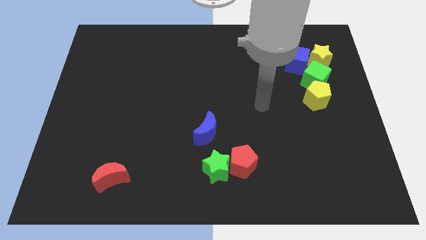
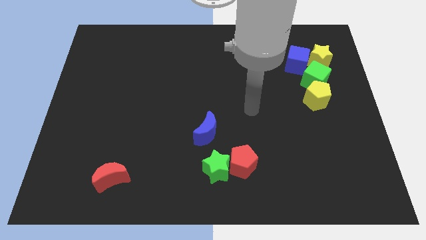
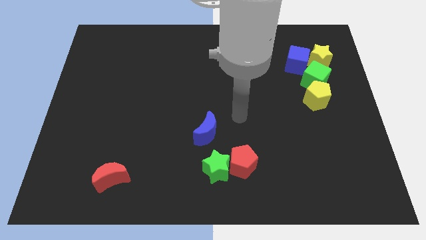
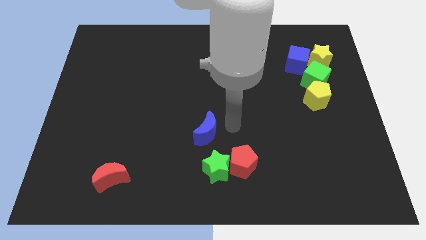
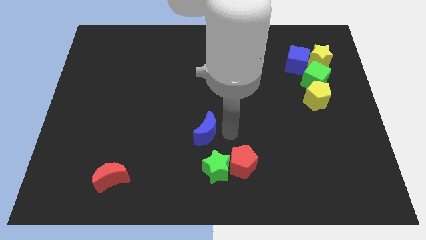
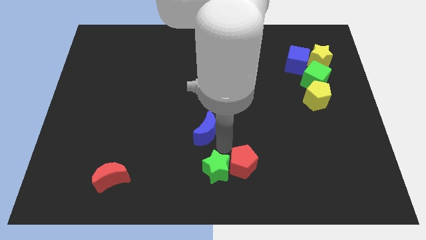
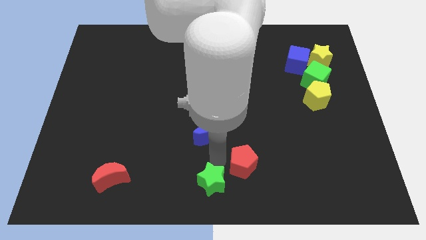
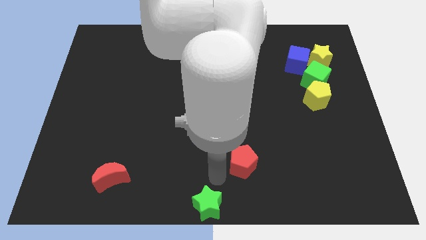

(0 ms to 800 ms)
separate the red pentagon from the green star

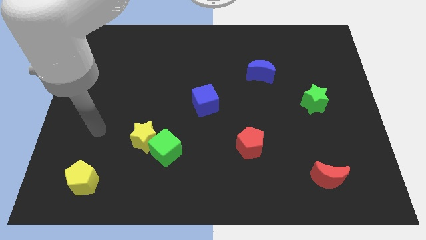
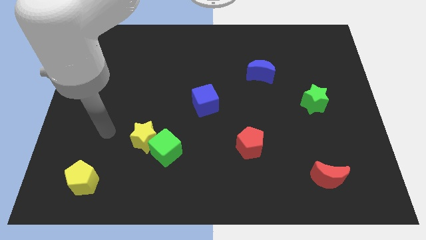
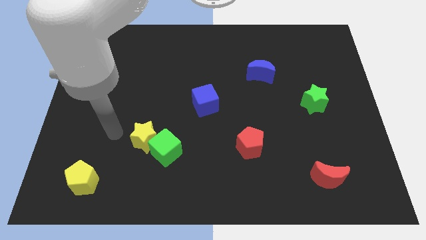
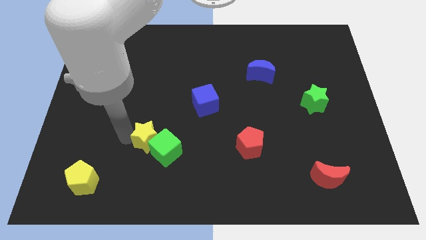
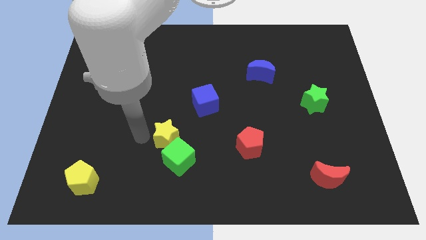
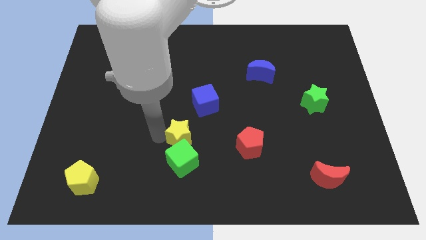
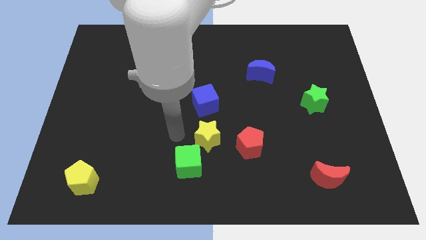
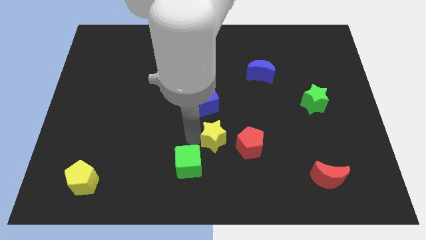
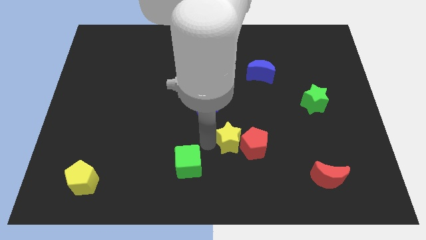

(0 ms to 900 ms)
separate the green cube from the yellow star

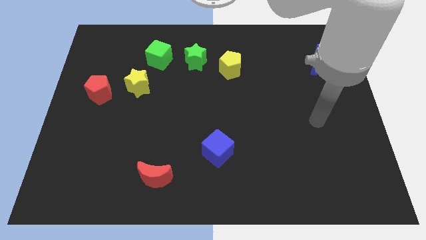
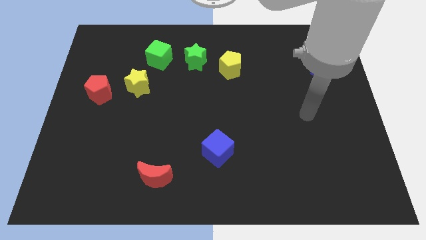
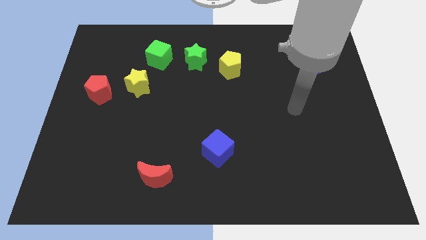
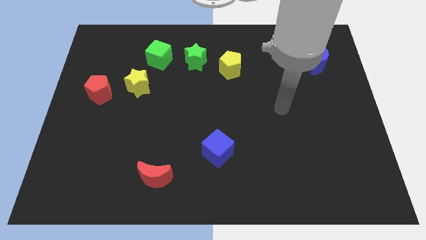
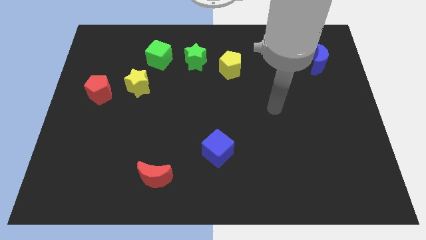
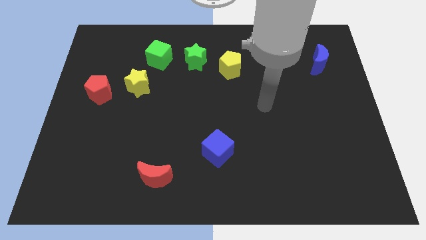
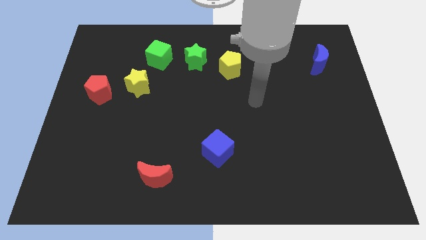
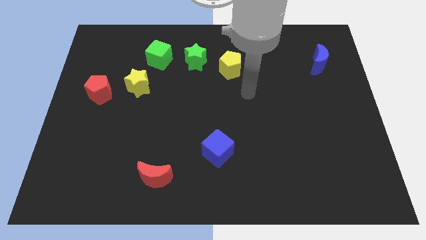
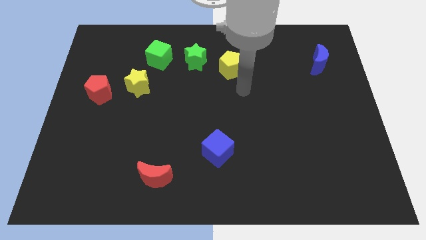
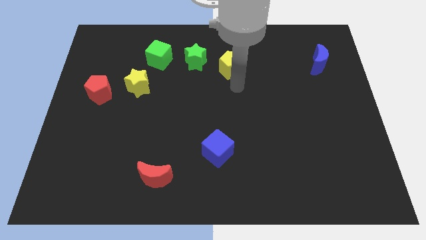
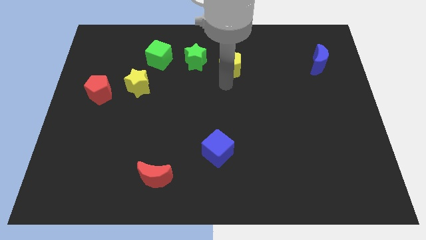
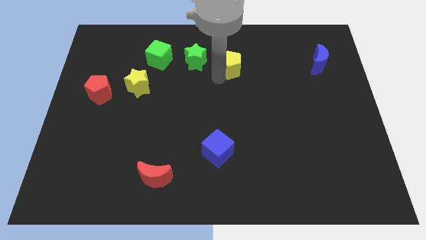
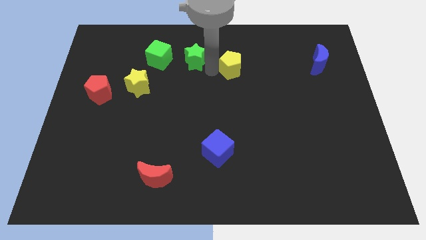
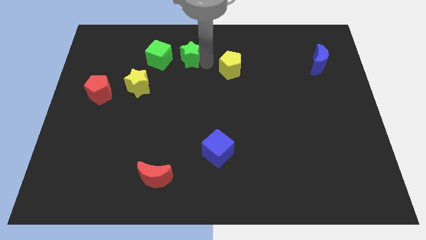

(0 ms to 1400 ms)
pull the yellow pentagon apart from the green star

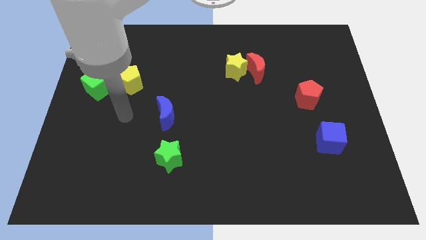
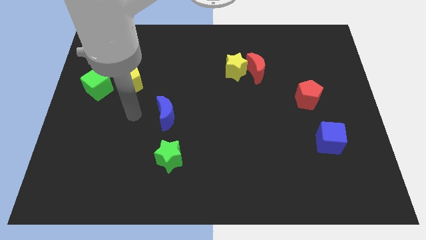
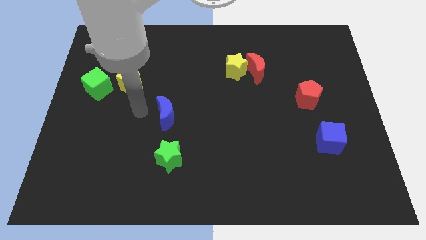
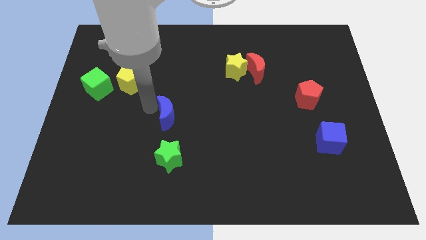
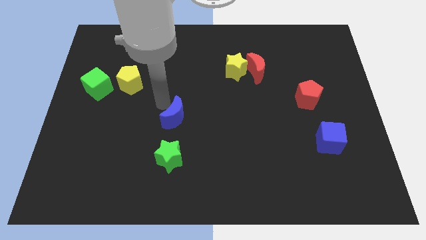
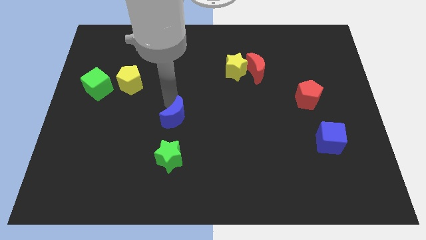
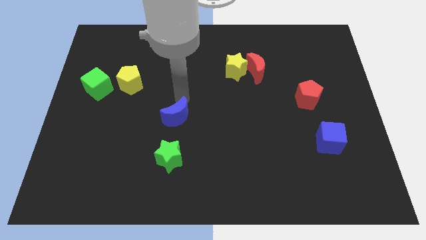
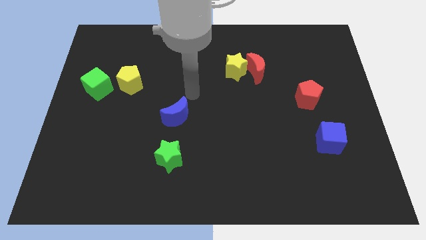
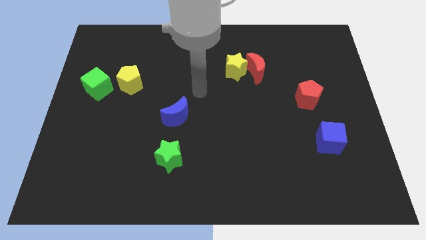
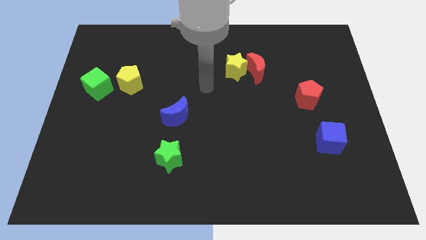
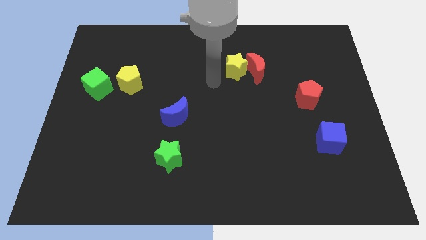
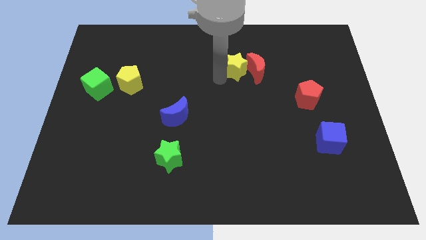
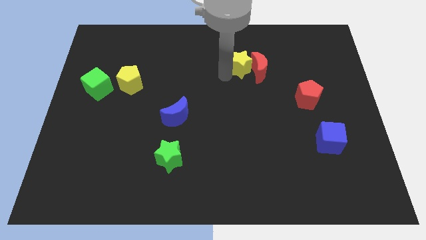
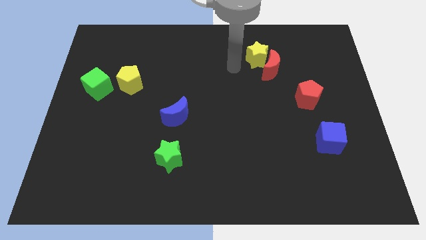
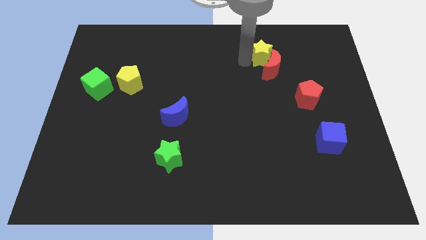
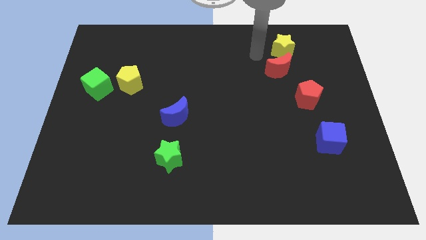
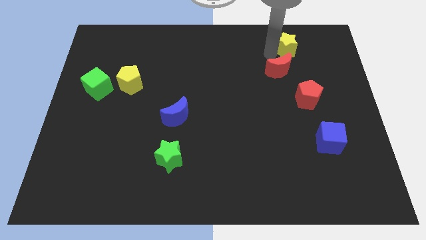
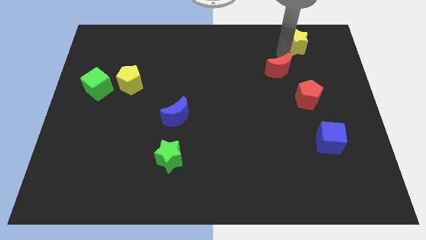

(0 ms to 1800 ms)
separate the red moon from the yellow star

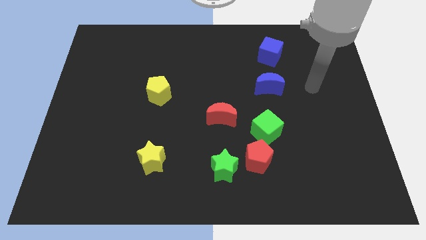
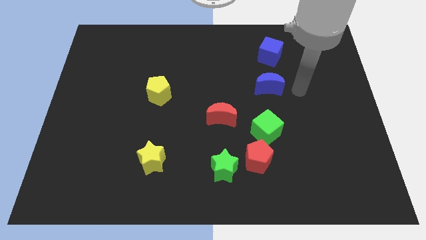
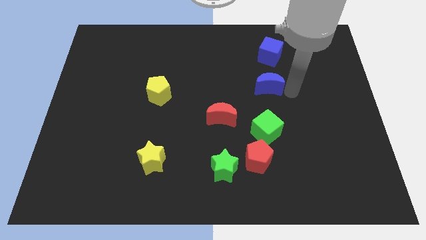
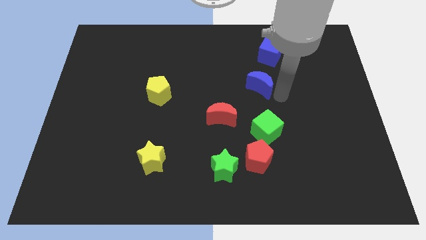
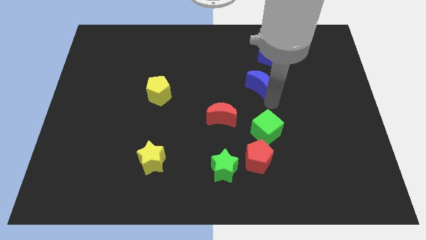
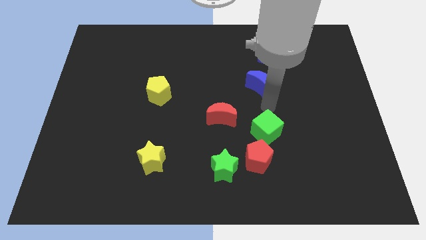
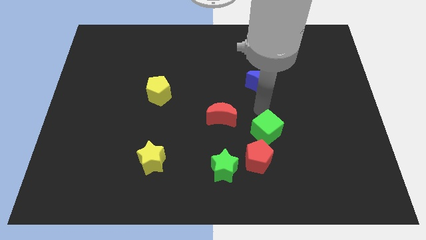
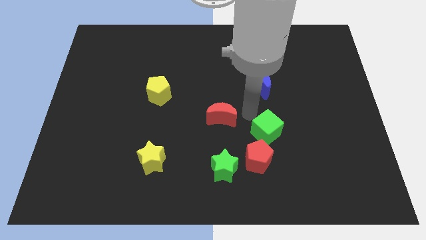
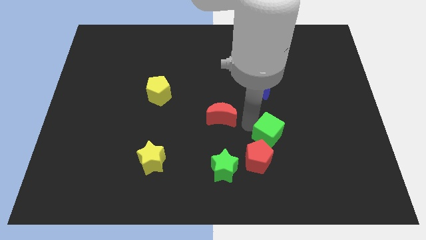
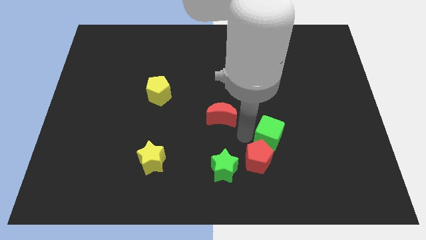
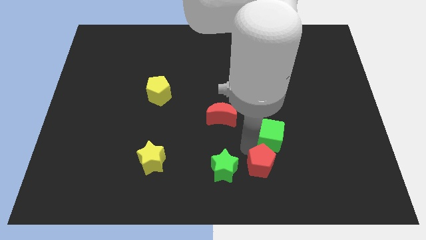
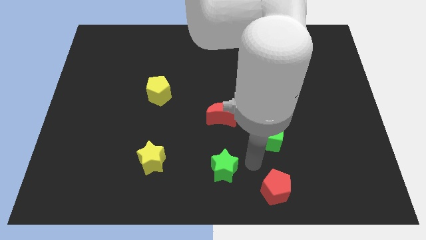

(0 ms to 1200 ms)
pull the green star apart from the red pentagon

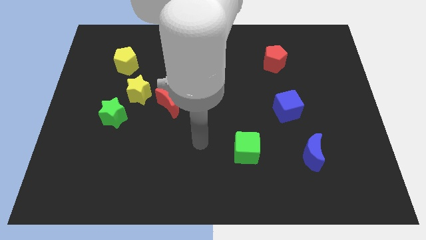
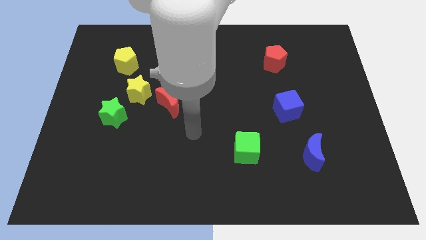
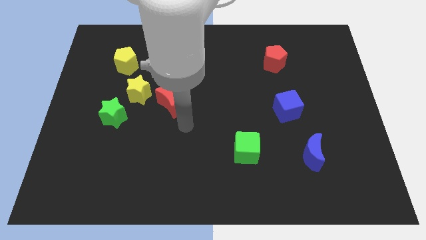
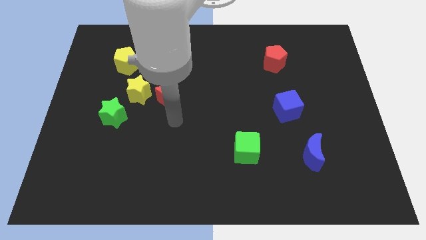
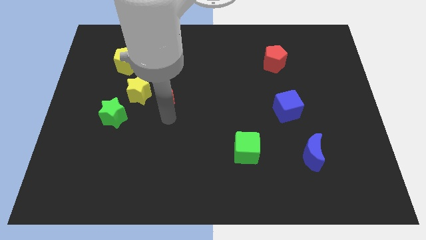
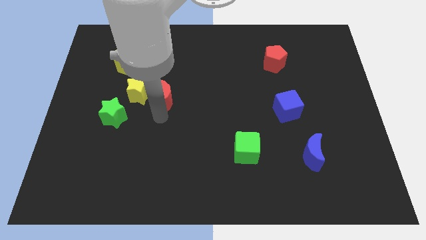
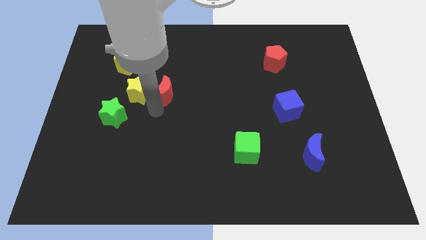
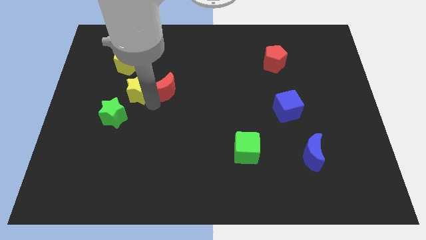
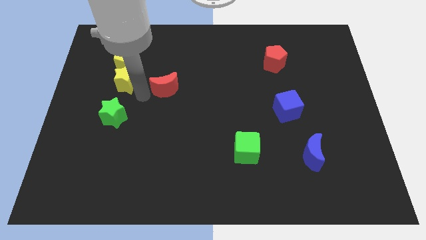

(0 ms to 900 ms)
pull the red moon apart from the yellow star

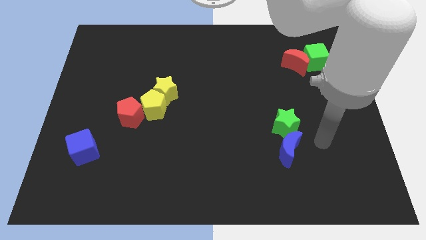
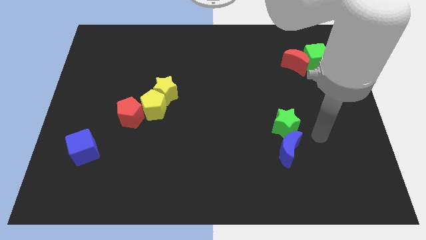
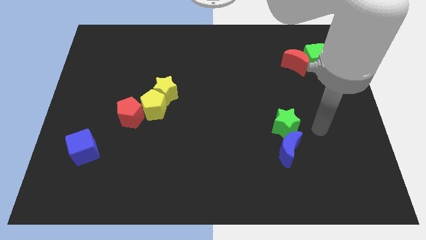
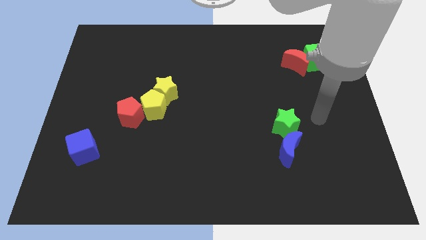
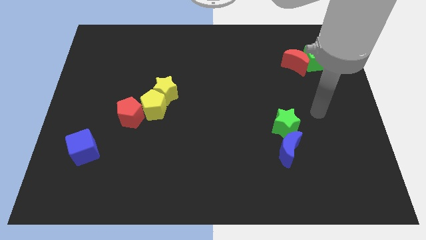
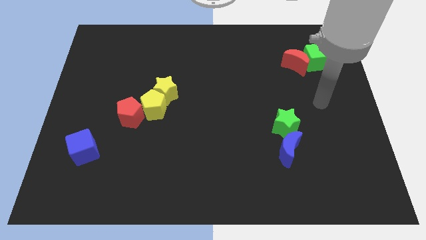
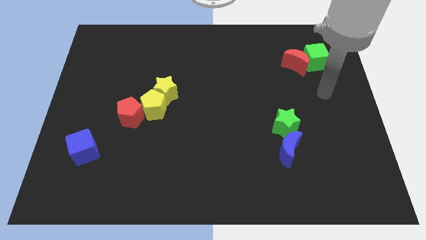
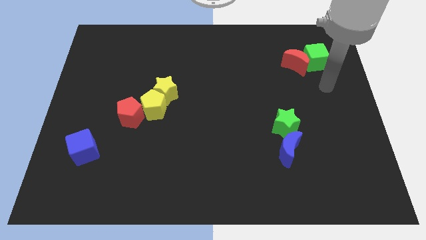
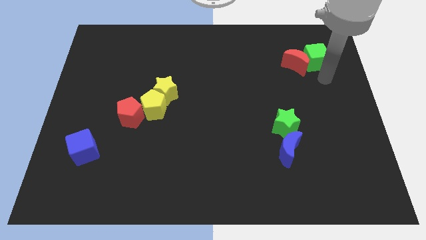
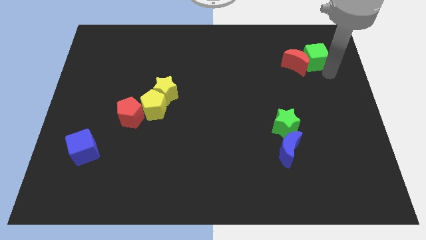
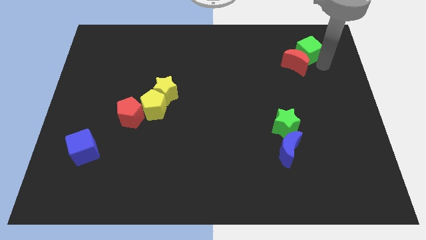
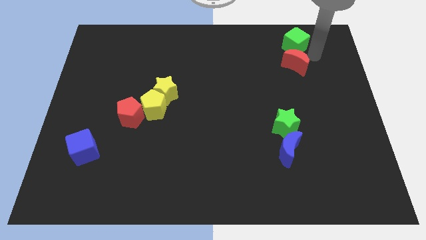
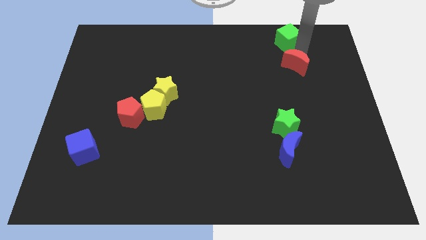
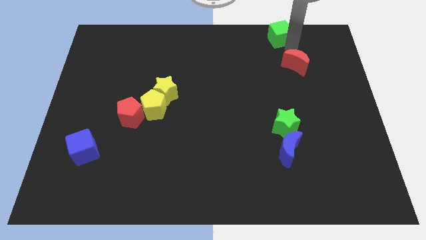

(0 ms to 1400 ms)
move the red moon away from the green cube

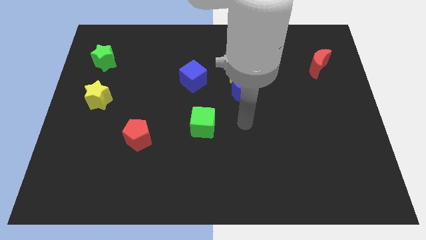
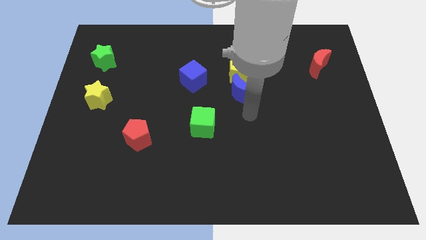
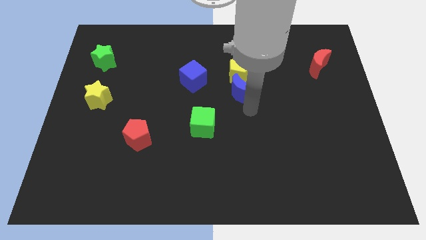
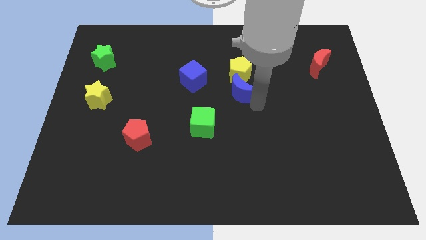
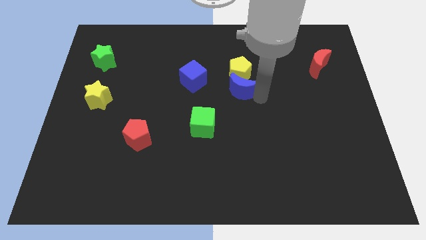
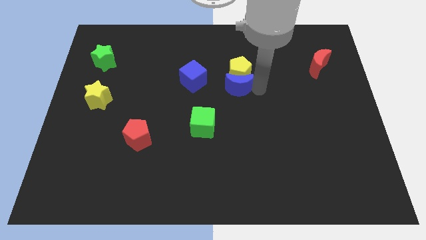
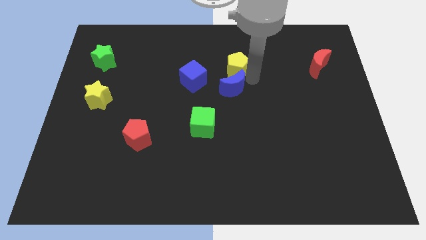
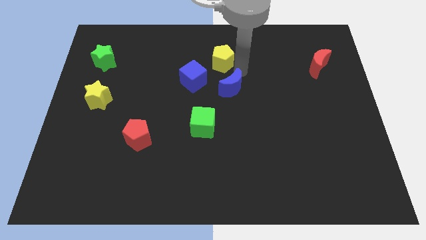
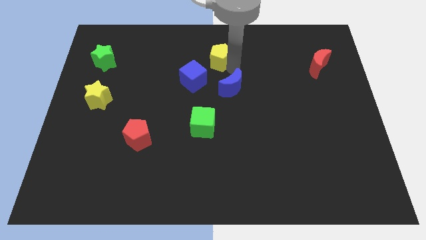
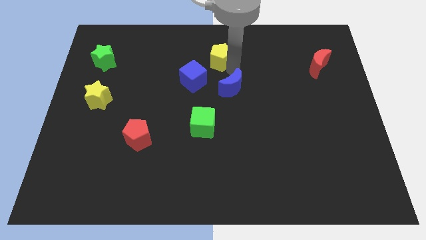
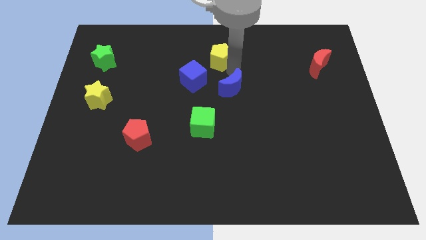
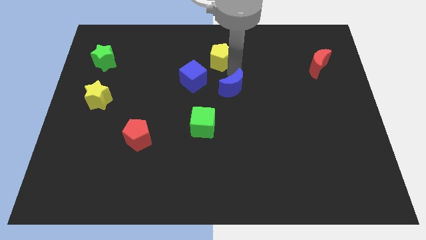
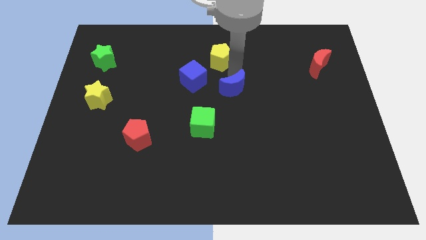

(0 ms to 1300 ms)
pull the blue moon apart from the yellow pentagon
